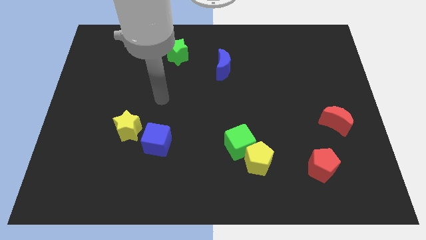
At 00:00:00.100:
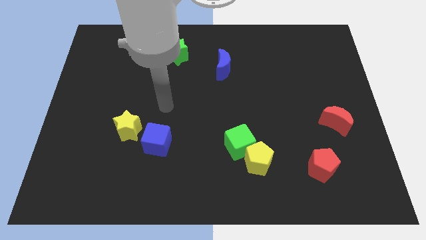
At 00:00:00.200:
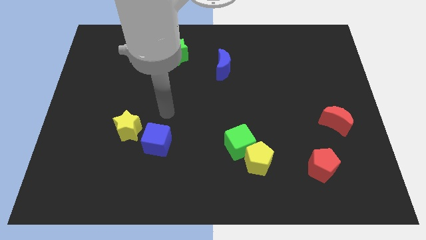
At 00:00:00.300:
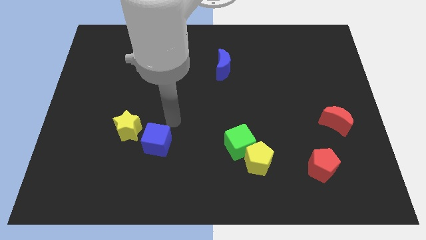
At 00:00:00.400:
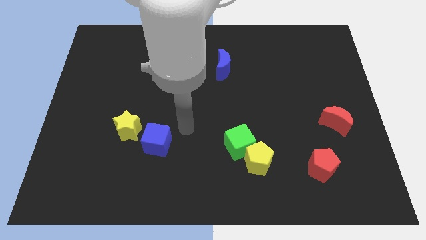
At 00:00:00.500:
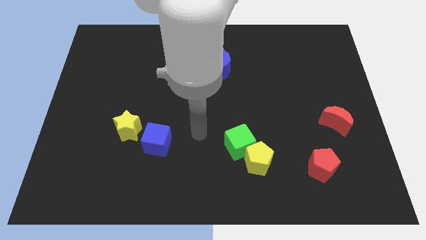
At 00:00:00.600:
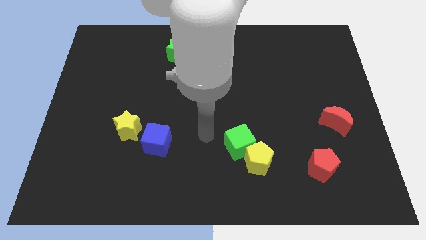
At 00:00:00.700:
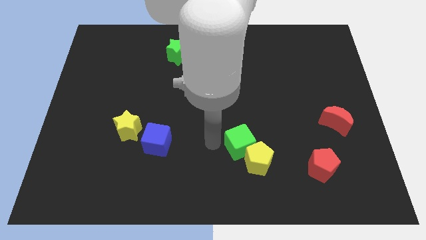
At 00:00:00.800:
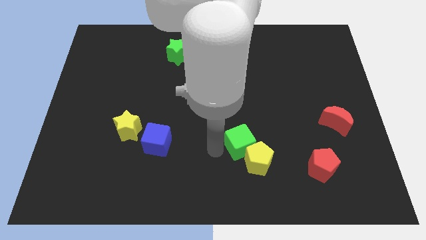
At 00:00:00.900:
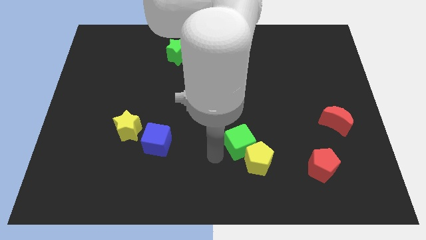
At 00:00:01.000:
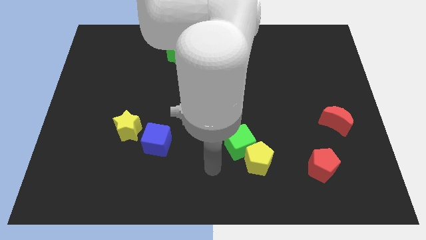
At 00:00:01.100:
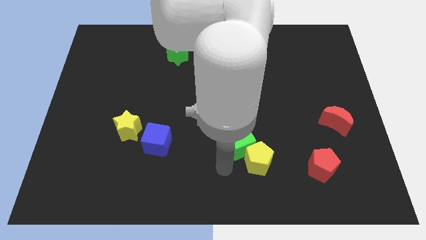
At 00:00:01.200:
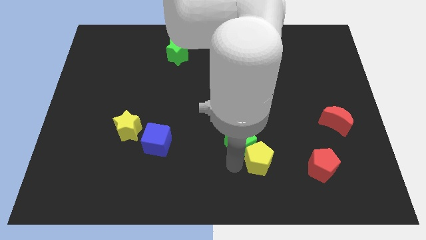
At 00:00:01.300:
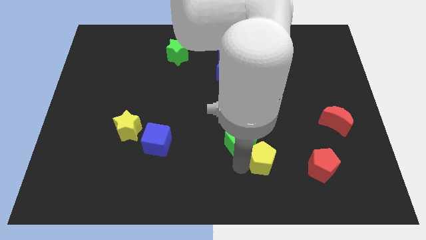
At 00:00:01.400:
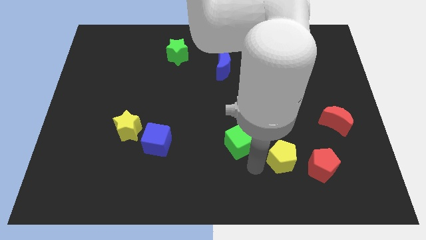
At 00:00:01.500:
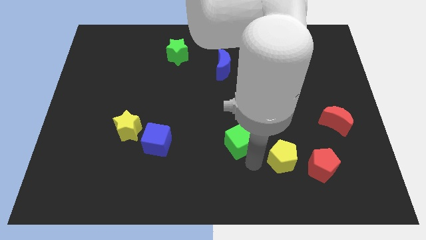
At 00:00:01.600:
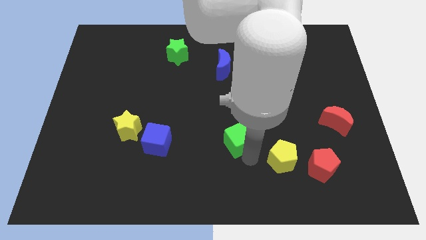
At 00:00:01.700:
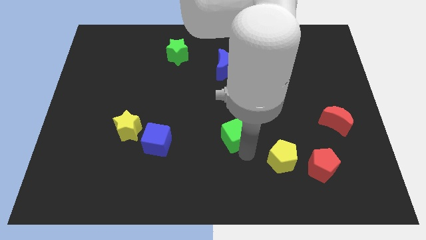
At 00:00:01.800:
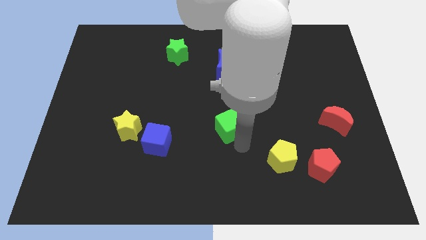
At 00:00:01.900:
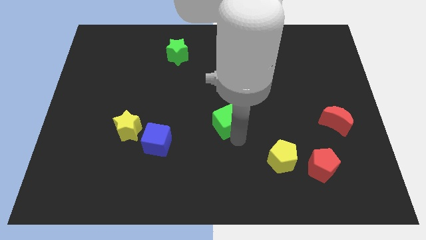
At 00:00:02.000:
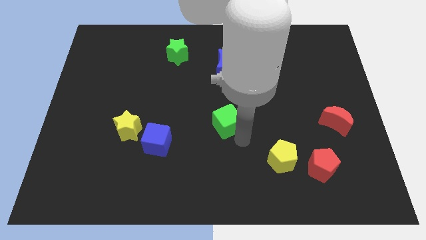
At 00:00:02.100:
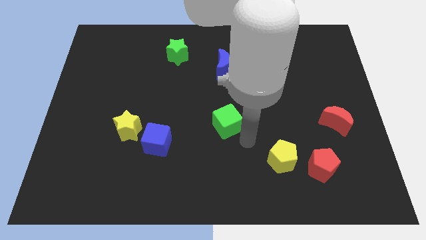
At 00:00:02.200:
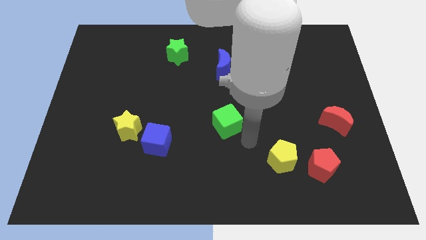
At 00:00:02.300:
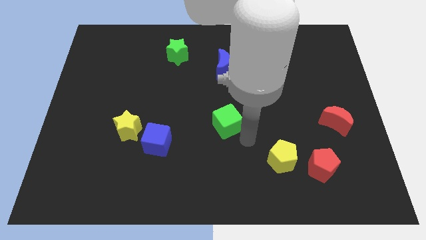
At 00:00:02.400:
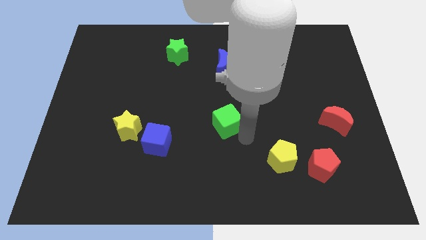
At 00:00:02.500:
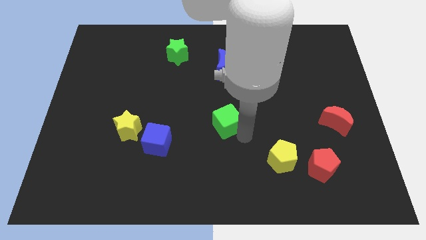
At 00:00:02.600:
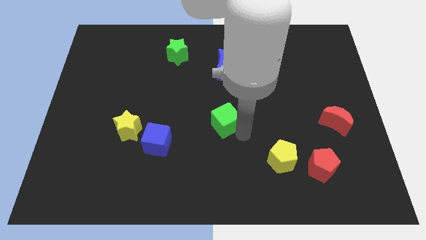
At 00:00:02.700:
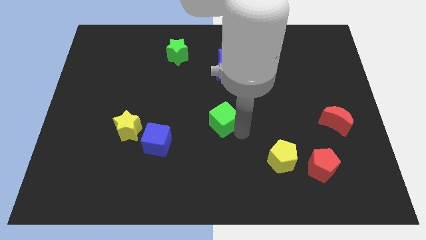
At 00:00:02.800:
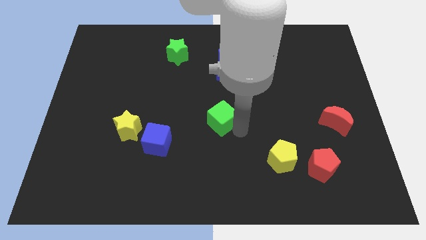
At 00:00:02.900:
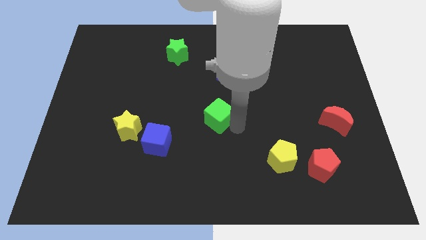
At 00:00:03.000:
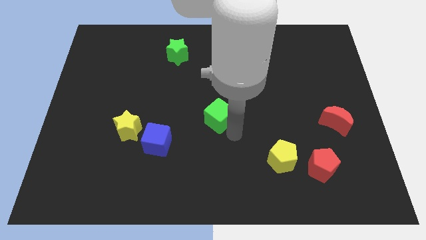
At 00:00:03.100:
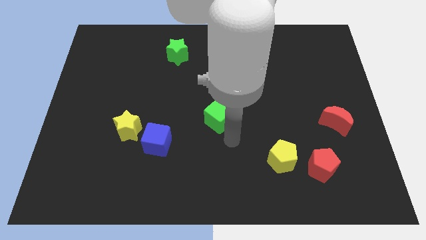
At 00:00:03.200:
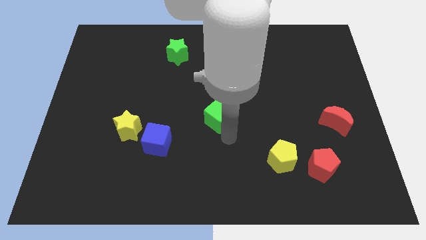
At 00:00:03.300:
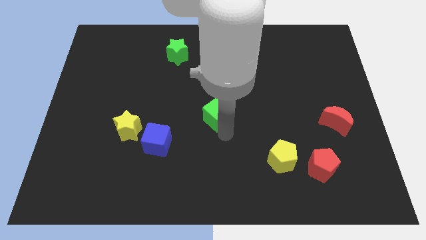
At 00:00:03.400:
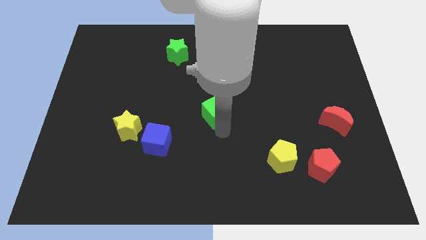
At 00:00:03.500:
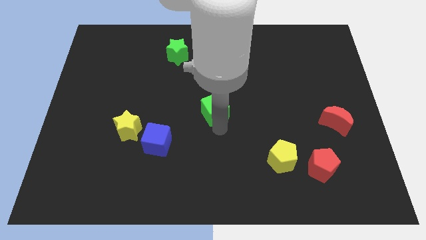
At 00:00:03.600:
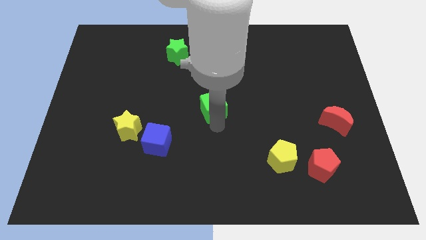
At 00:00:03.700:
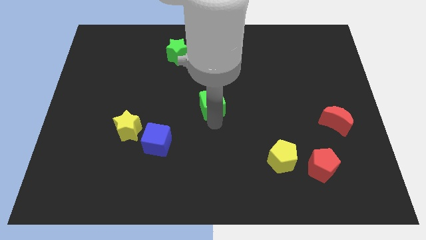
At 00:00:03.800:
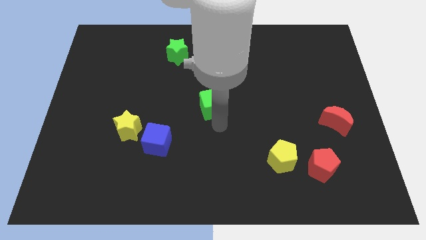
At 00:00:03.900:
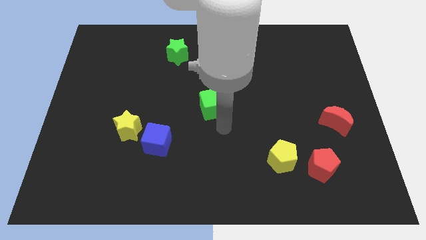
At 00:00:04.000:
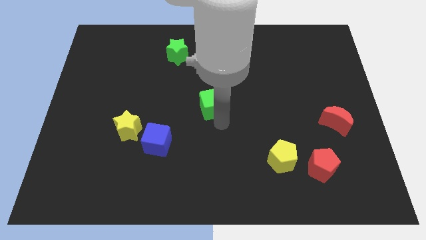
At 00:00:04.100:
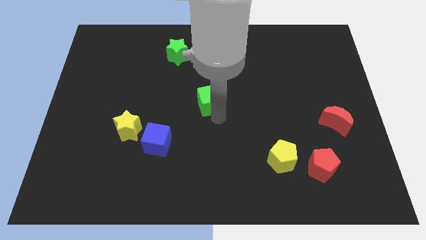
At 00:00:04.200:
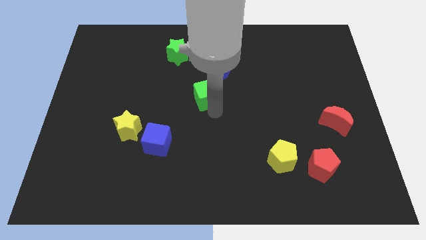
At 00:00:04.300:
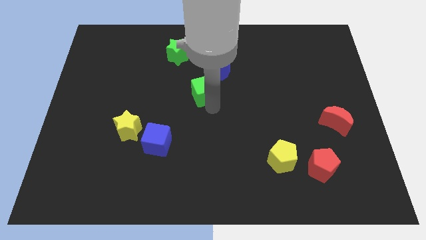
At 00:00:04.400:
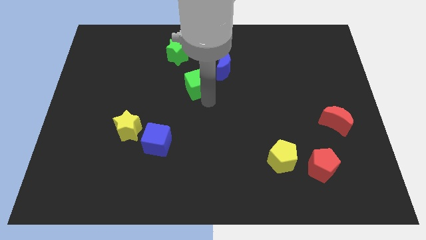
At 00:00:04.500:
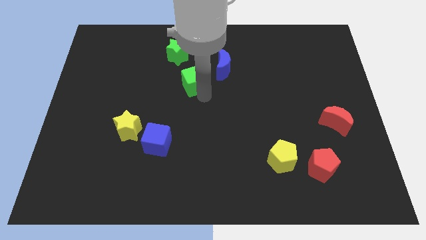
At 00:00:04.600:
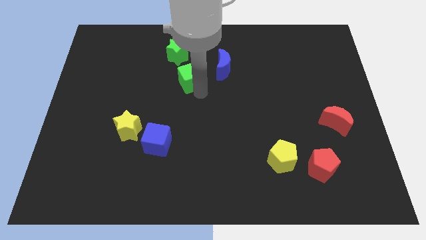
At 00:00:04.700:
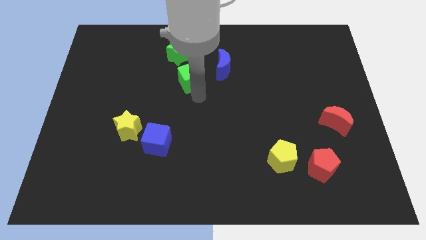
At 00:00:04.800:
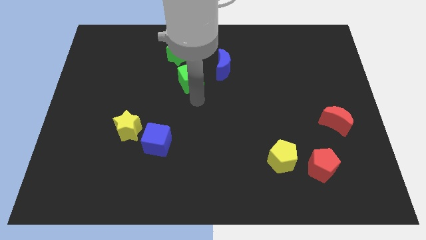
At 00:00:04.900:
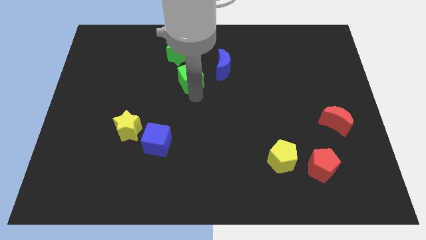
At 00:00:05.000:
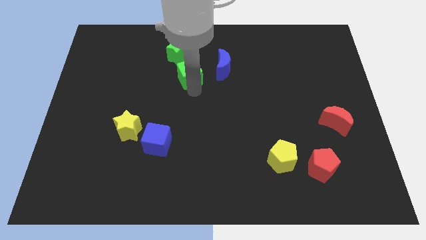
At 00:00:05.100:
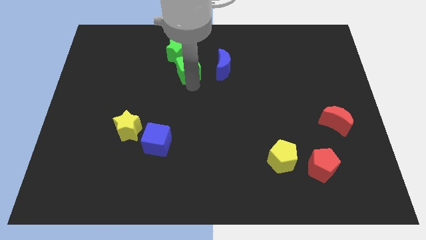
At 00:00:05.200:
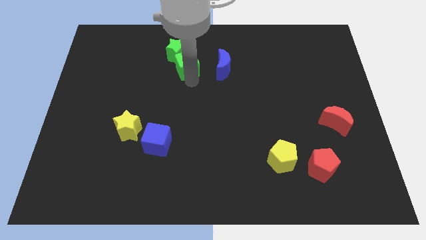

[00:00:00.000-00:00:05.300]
slide the green cube towards the green star

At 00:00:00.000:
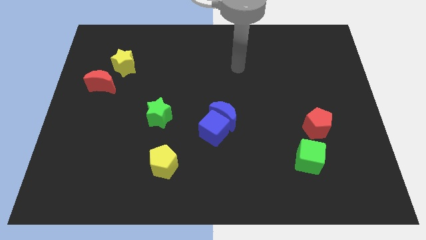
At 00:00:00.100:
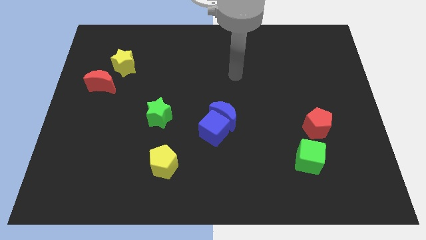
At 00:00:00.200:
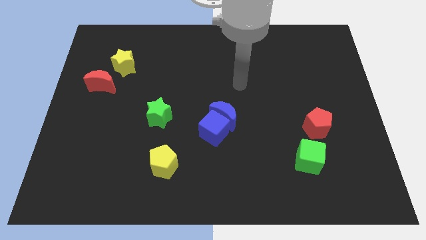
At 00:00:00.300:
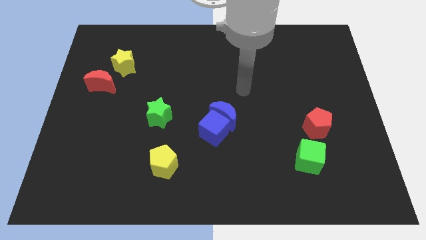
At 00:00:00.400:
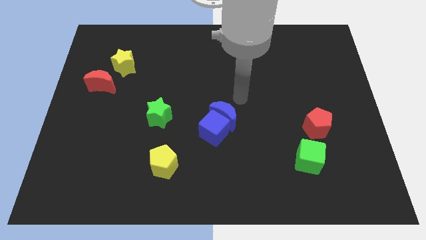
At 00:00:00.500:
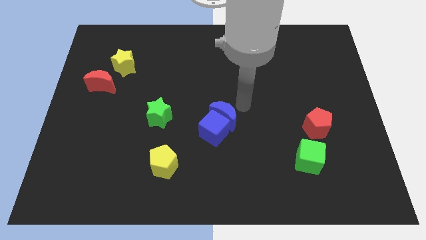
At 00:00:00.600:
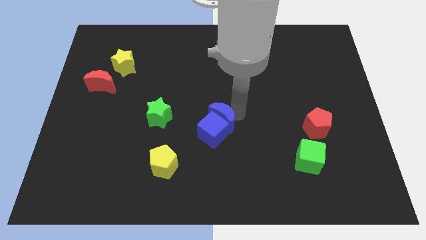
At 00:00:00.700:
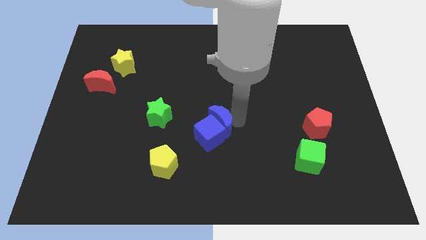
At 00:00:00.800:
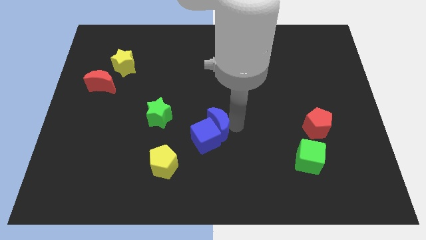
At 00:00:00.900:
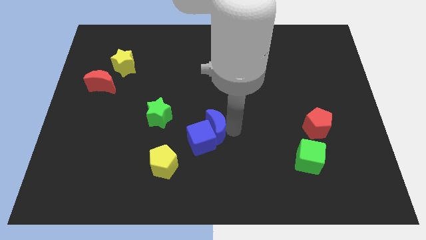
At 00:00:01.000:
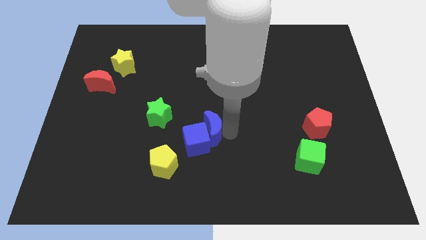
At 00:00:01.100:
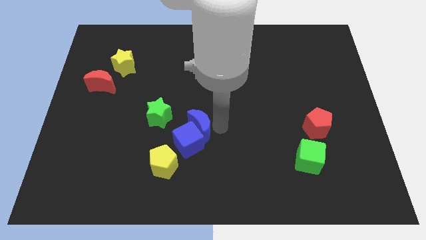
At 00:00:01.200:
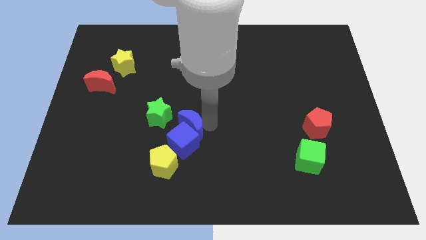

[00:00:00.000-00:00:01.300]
put the blue cube close to the yellow pentagon

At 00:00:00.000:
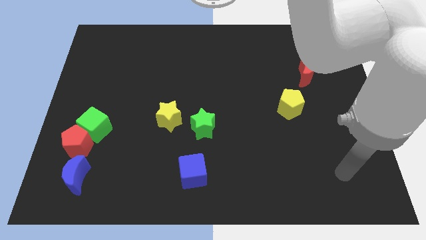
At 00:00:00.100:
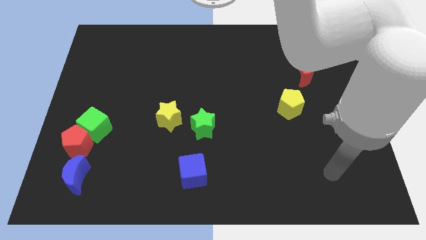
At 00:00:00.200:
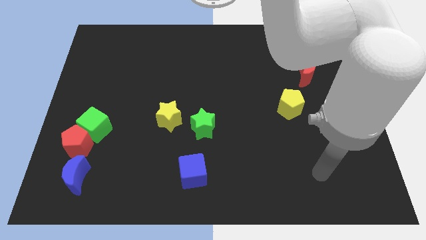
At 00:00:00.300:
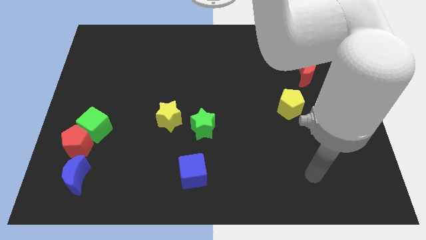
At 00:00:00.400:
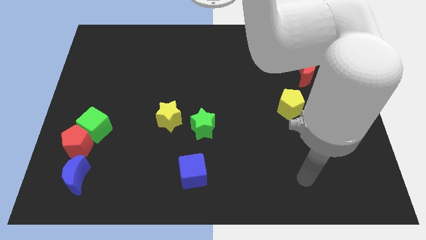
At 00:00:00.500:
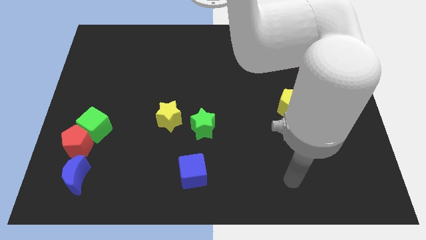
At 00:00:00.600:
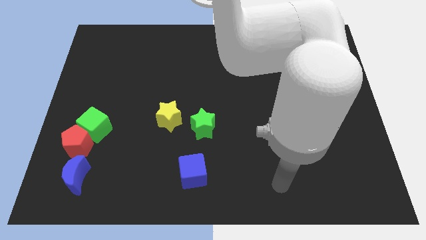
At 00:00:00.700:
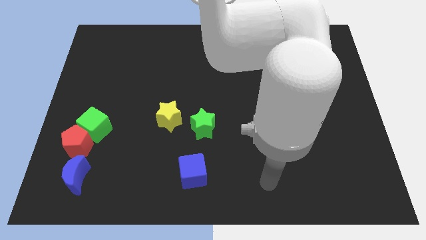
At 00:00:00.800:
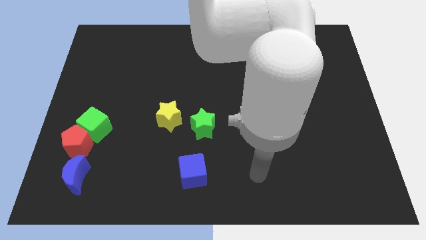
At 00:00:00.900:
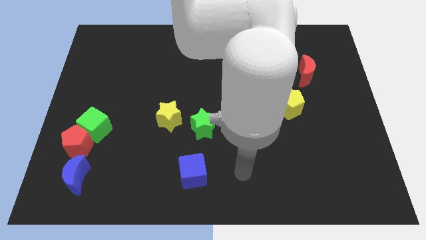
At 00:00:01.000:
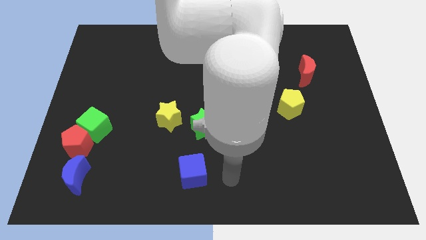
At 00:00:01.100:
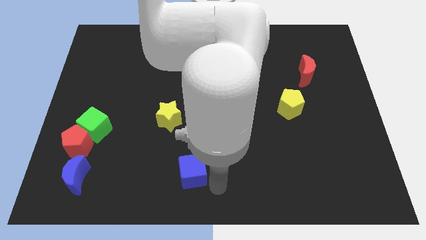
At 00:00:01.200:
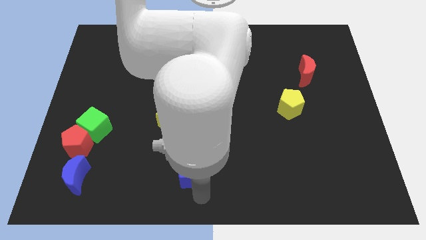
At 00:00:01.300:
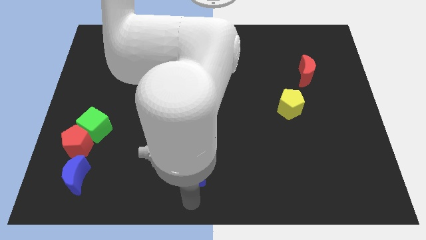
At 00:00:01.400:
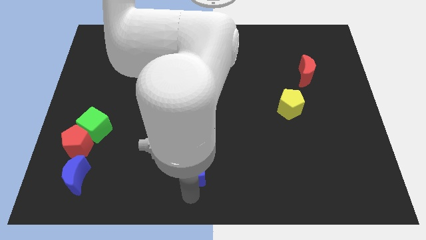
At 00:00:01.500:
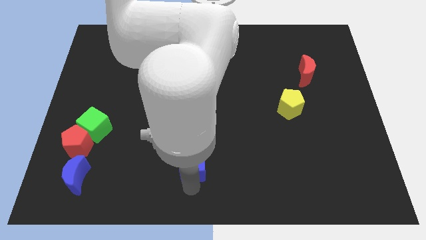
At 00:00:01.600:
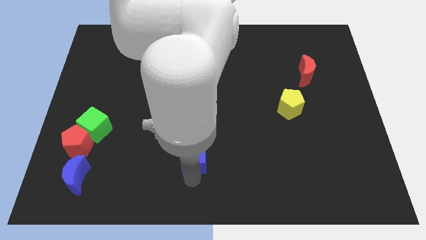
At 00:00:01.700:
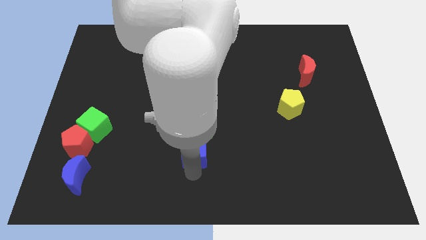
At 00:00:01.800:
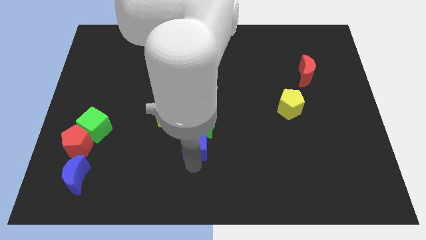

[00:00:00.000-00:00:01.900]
put the blue cube to the green star
